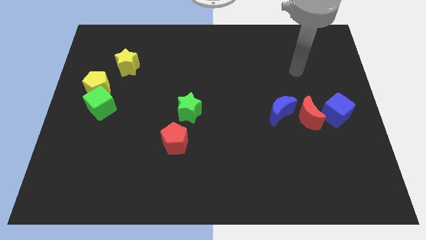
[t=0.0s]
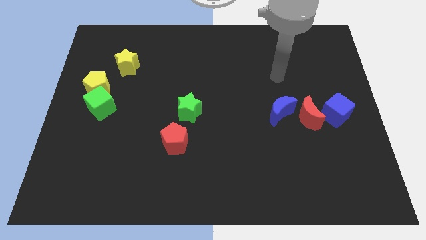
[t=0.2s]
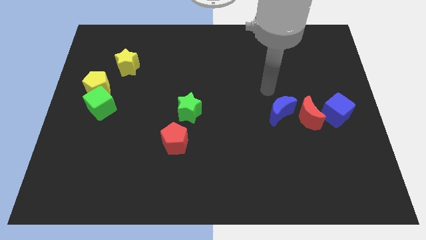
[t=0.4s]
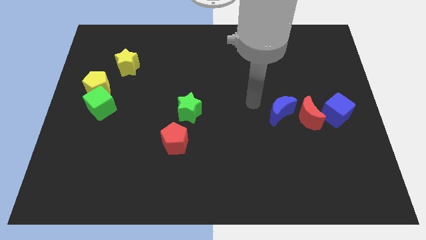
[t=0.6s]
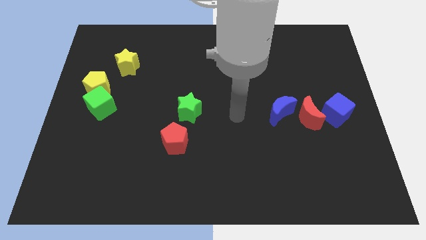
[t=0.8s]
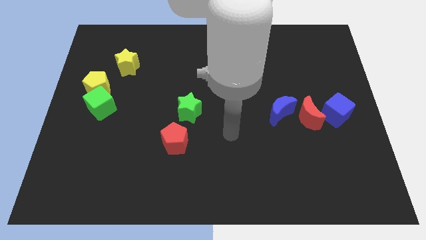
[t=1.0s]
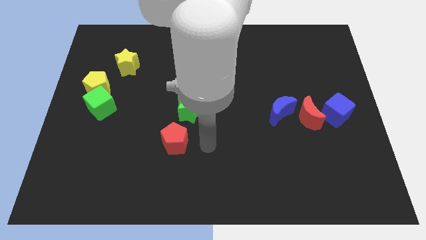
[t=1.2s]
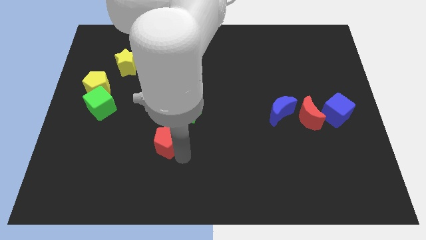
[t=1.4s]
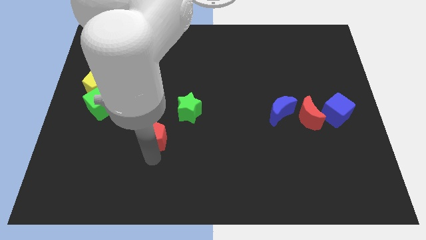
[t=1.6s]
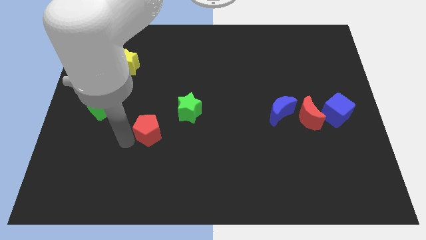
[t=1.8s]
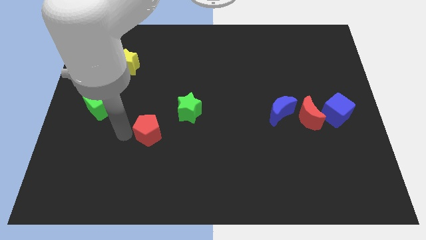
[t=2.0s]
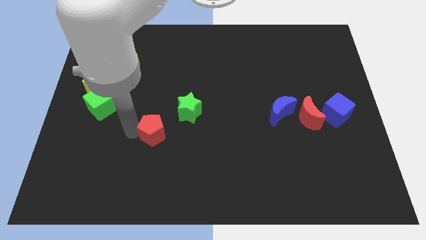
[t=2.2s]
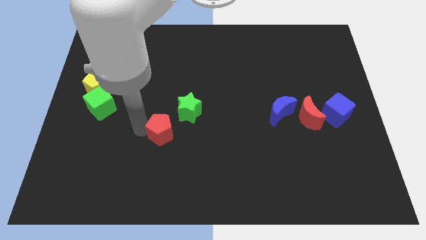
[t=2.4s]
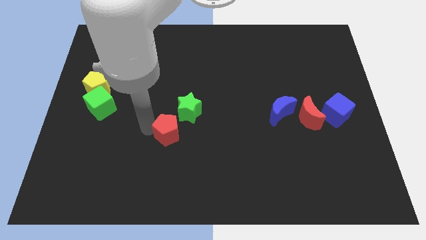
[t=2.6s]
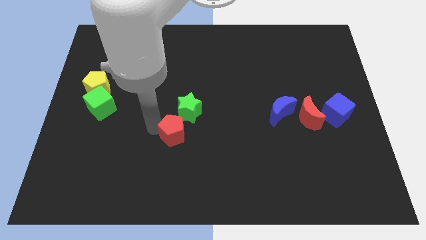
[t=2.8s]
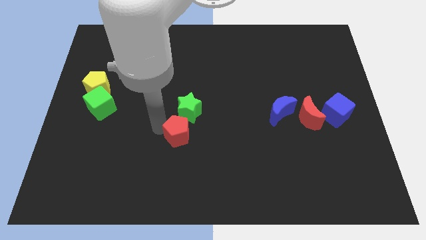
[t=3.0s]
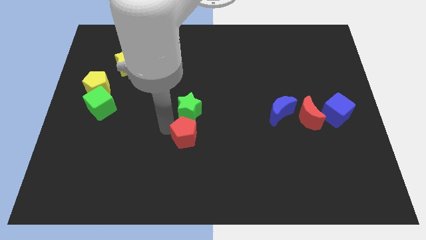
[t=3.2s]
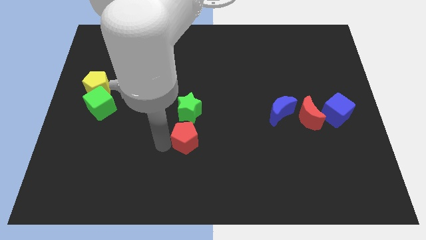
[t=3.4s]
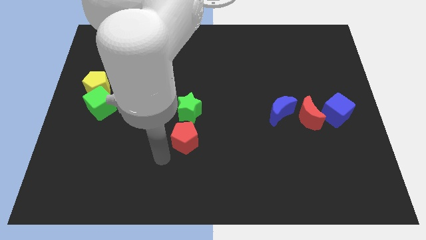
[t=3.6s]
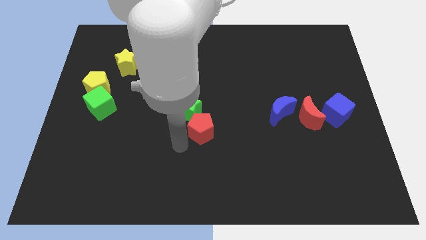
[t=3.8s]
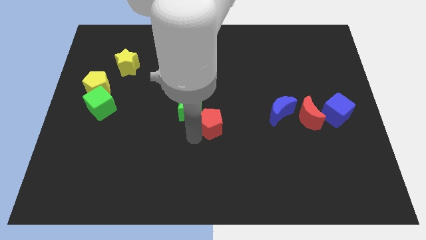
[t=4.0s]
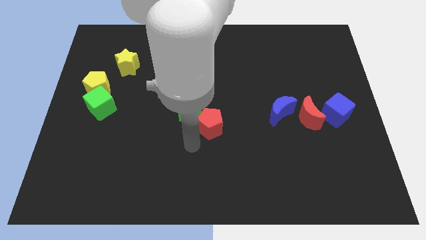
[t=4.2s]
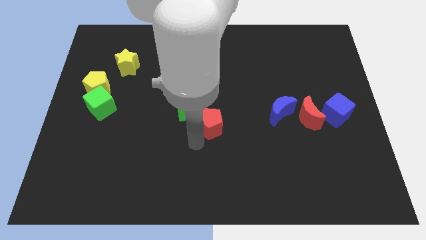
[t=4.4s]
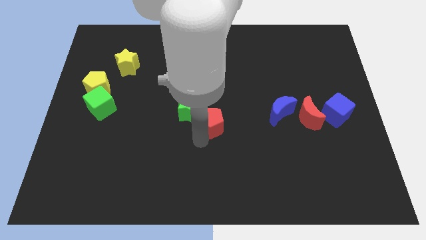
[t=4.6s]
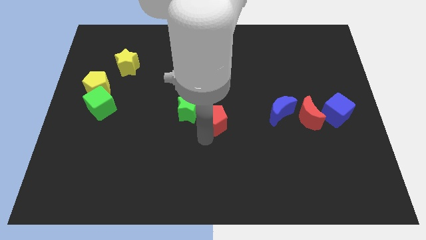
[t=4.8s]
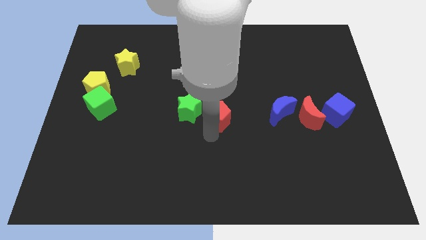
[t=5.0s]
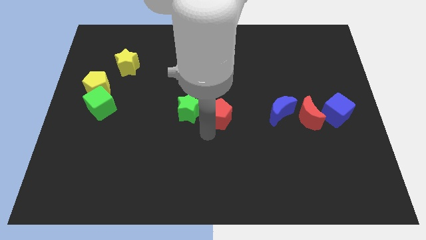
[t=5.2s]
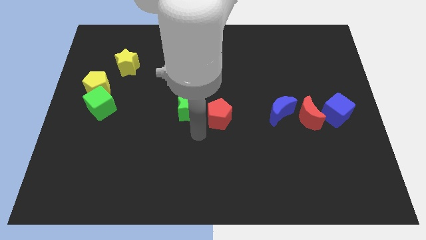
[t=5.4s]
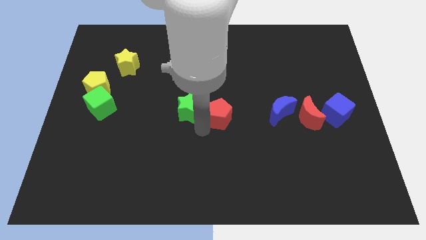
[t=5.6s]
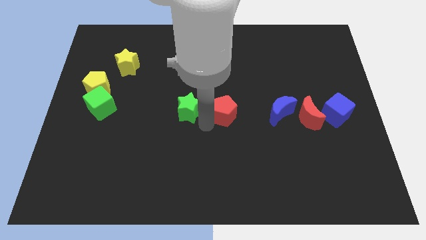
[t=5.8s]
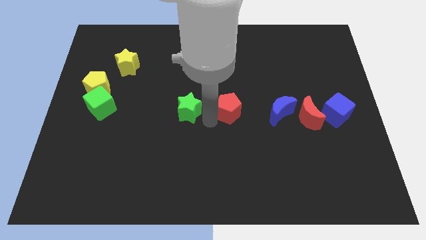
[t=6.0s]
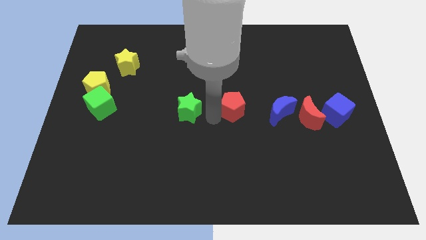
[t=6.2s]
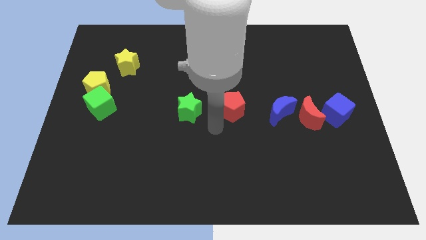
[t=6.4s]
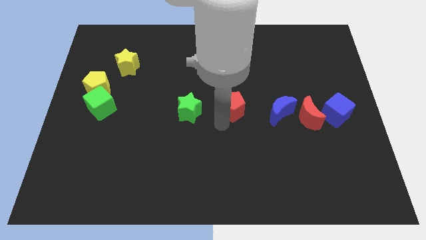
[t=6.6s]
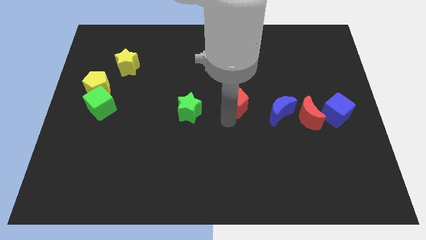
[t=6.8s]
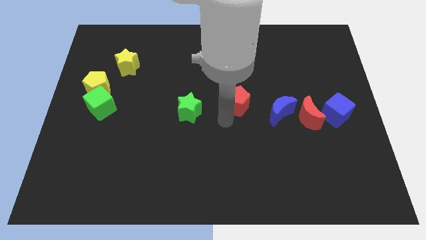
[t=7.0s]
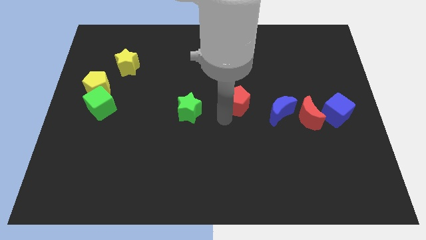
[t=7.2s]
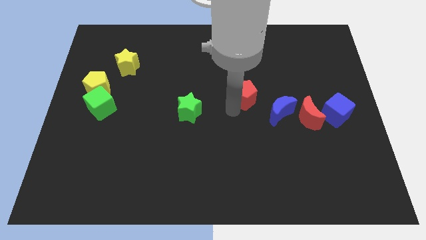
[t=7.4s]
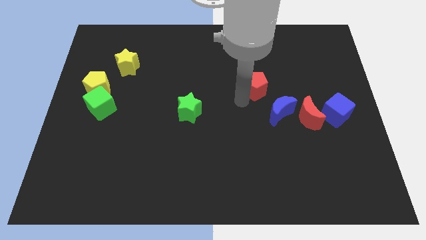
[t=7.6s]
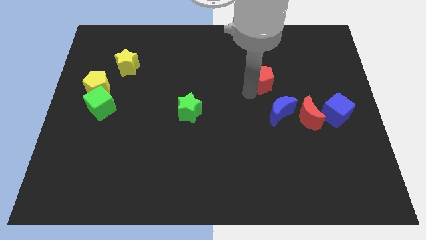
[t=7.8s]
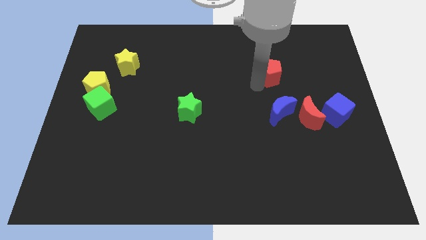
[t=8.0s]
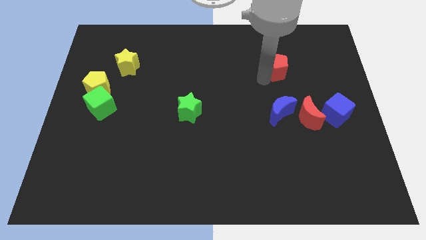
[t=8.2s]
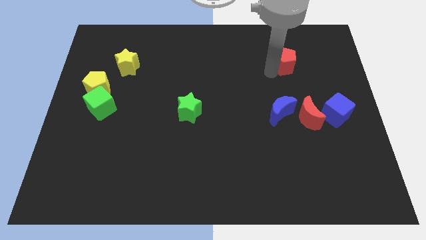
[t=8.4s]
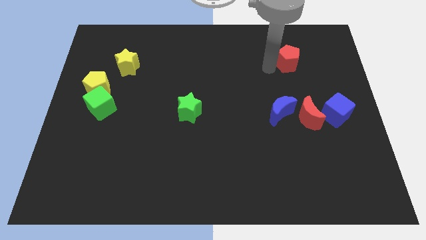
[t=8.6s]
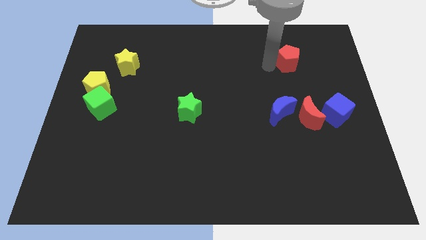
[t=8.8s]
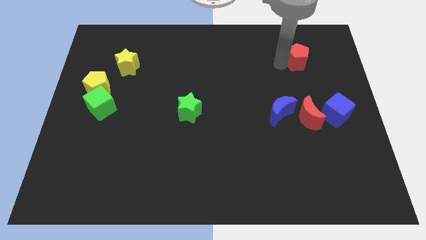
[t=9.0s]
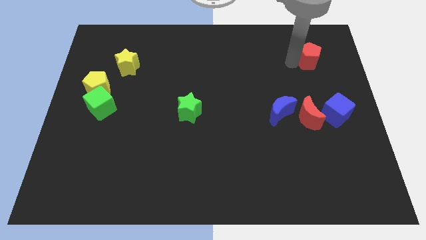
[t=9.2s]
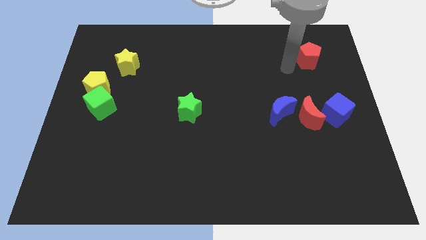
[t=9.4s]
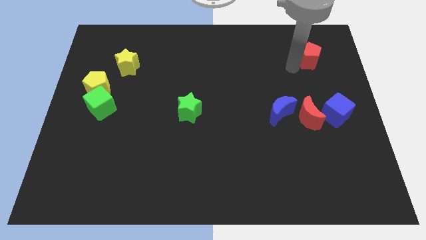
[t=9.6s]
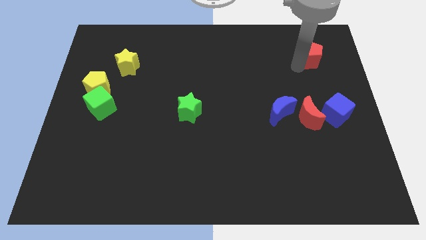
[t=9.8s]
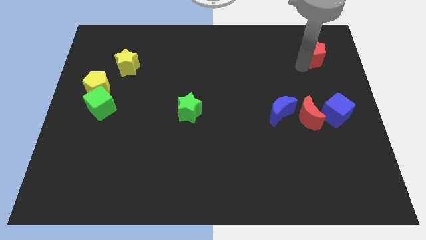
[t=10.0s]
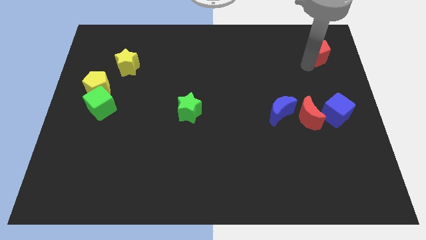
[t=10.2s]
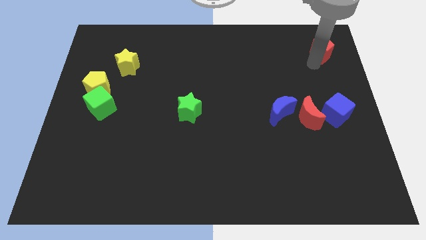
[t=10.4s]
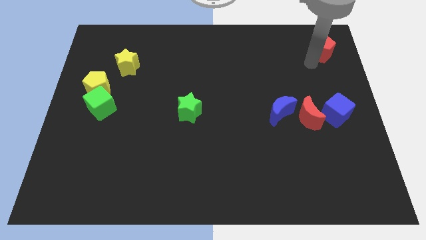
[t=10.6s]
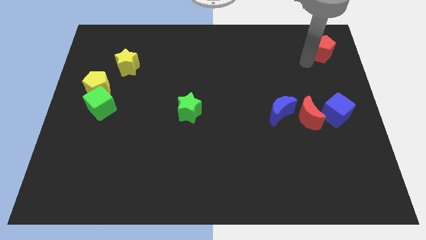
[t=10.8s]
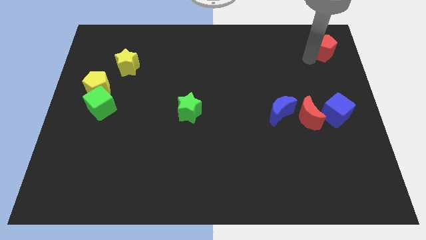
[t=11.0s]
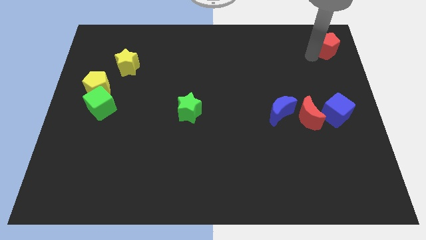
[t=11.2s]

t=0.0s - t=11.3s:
push the red pentagon to the top right corner
